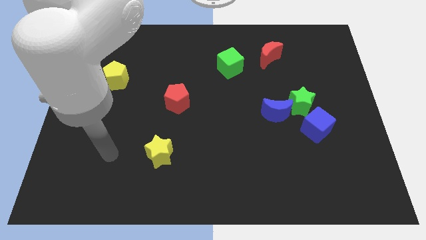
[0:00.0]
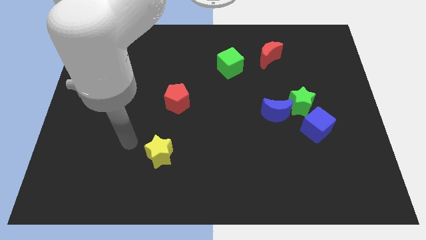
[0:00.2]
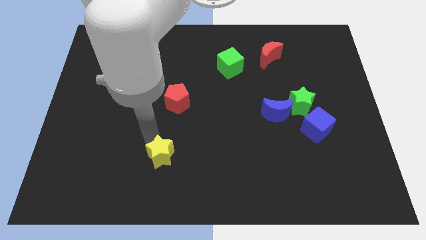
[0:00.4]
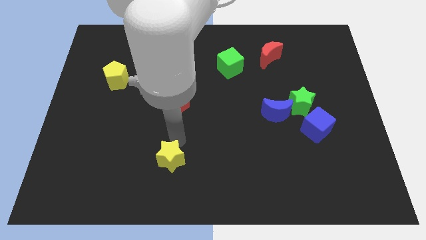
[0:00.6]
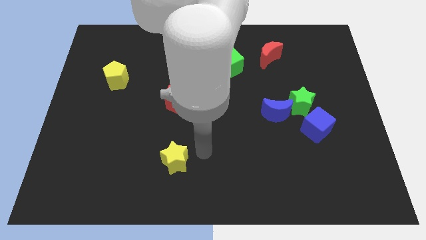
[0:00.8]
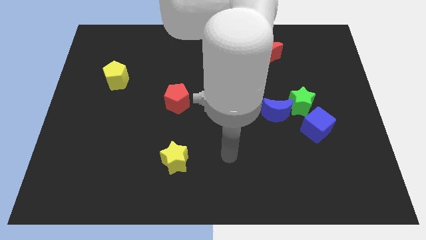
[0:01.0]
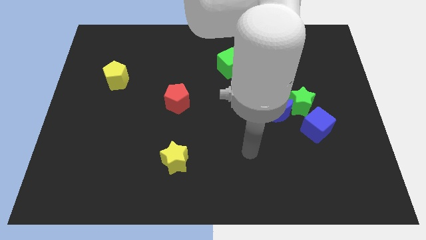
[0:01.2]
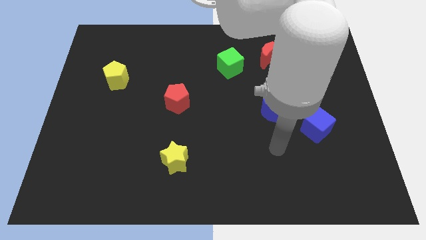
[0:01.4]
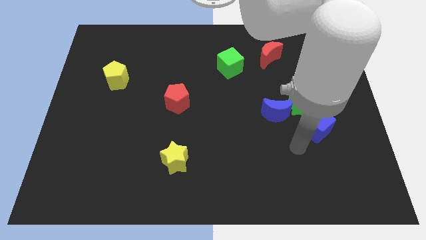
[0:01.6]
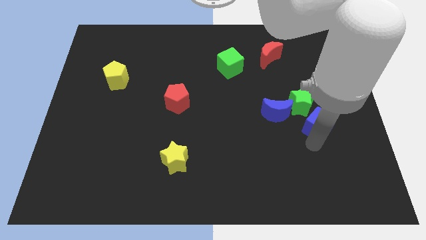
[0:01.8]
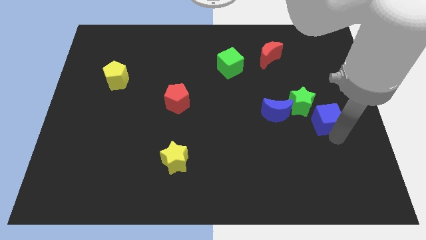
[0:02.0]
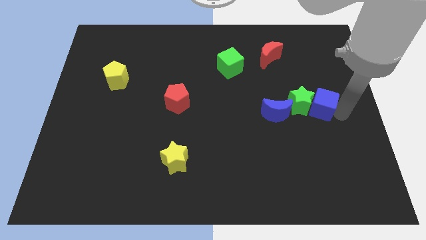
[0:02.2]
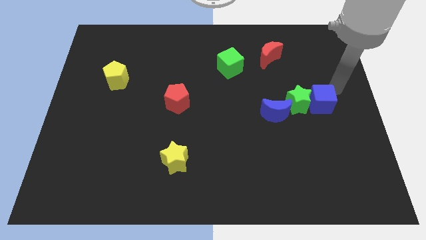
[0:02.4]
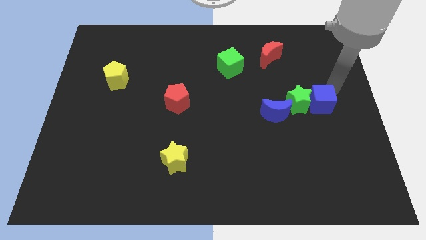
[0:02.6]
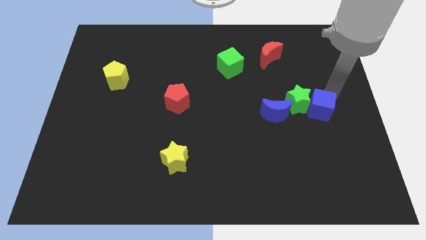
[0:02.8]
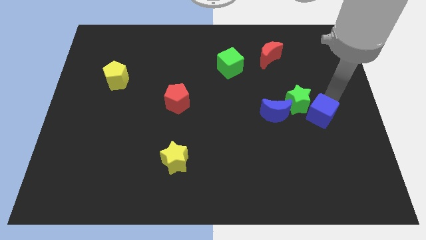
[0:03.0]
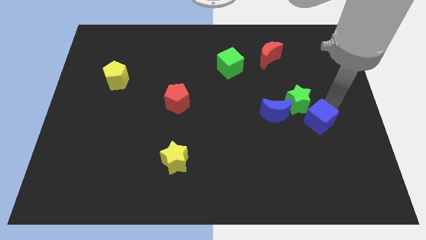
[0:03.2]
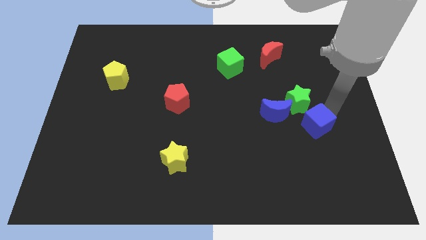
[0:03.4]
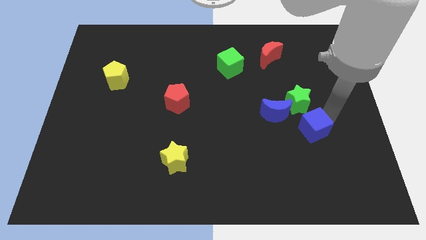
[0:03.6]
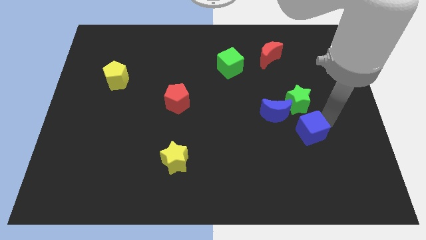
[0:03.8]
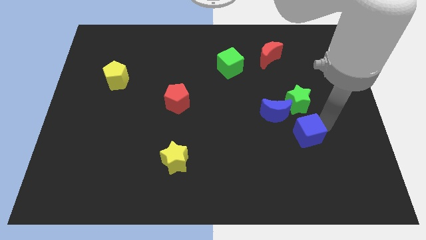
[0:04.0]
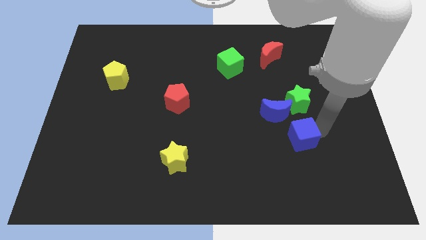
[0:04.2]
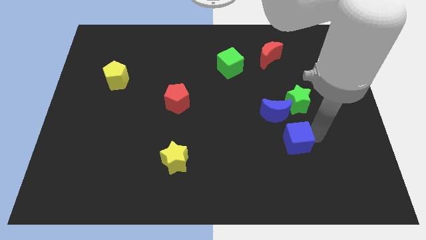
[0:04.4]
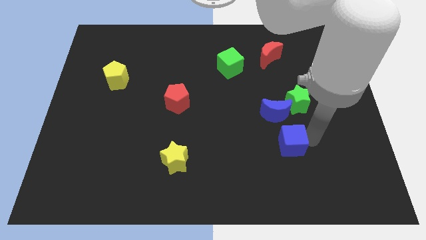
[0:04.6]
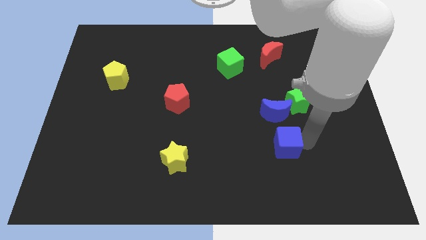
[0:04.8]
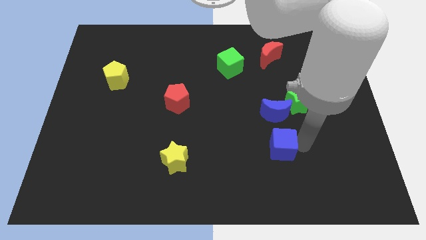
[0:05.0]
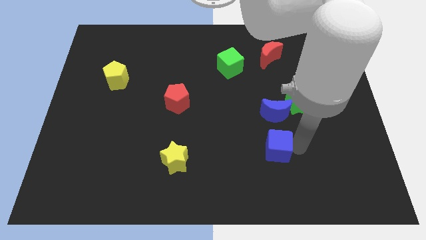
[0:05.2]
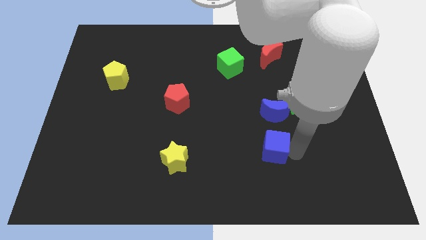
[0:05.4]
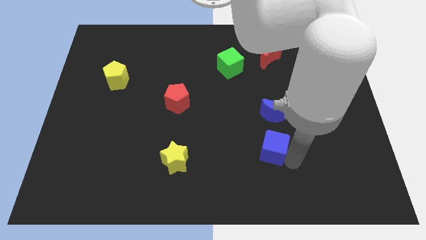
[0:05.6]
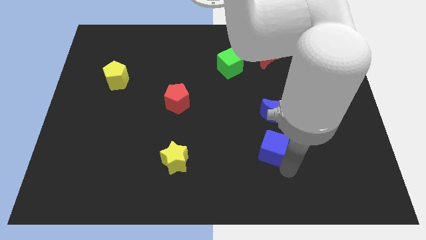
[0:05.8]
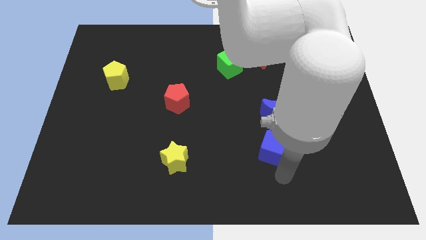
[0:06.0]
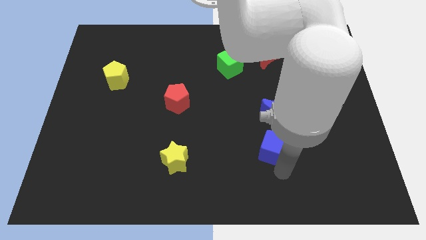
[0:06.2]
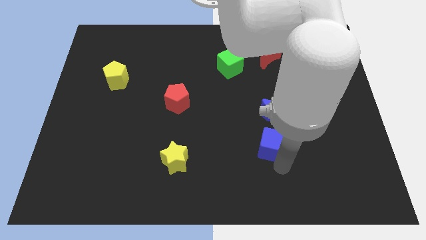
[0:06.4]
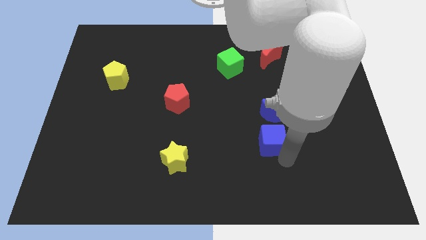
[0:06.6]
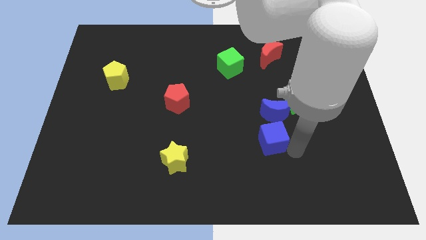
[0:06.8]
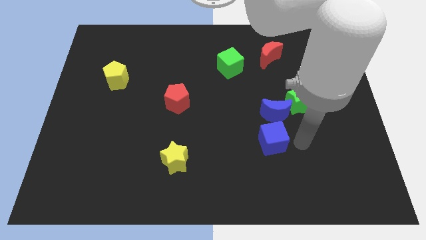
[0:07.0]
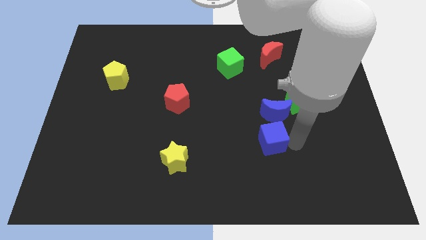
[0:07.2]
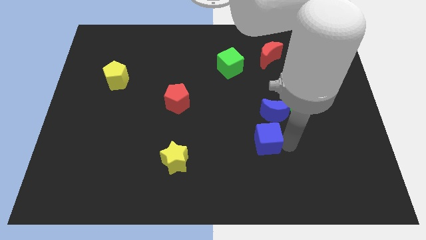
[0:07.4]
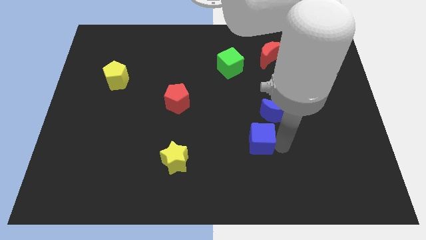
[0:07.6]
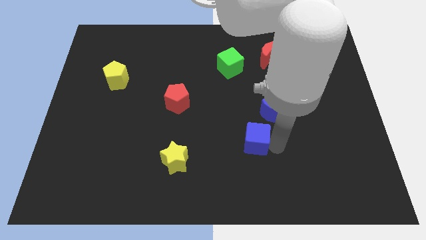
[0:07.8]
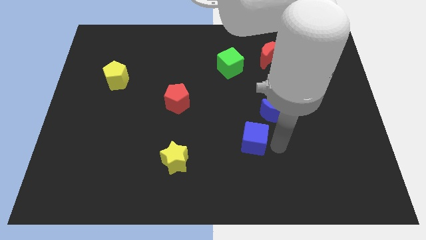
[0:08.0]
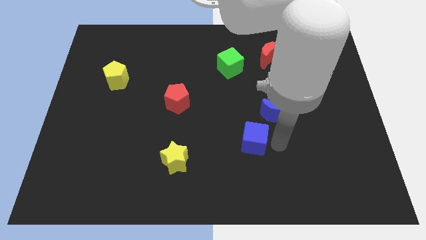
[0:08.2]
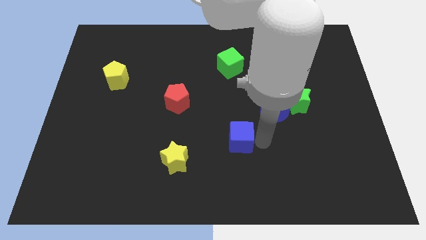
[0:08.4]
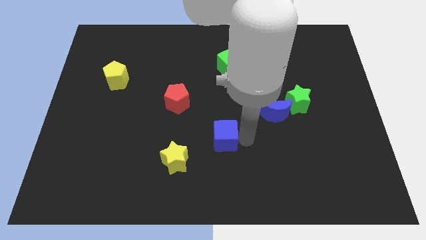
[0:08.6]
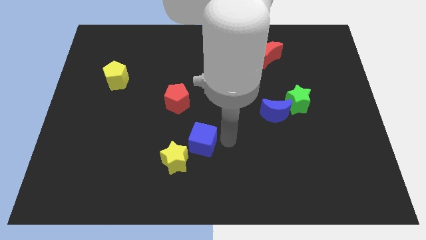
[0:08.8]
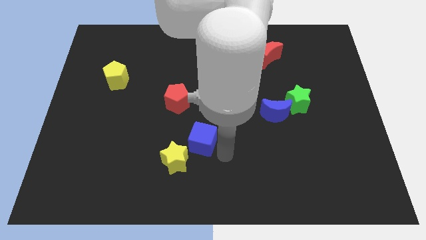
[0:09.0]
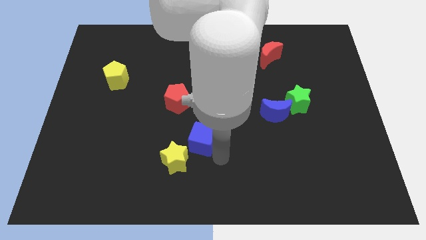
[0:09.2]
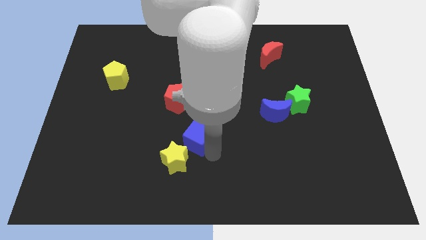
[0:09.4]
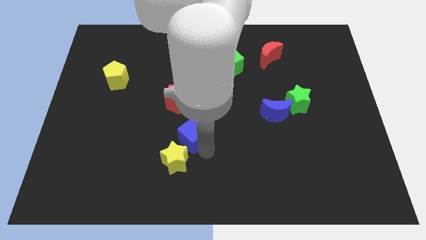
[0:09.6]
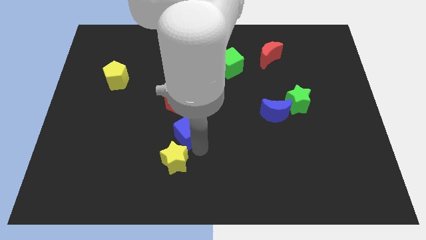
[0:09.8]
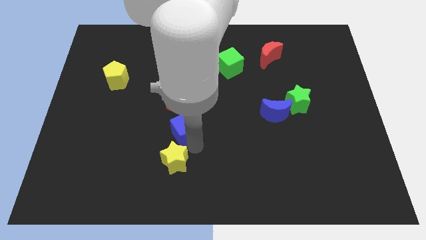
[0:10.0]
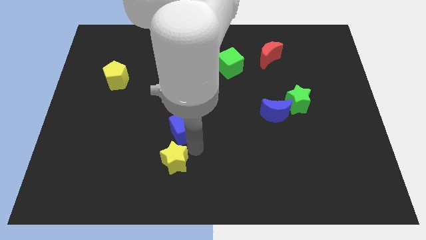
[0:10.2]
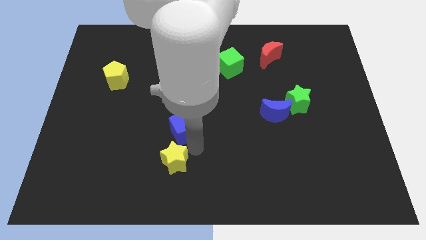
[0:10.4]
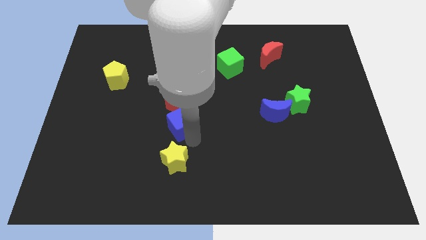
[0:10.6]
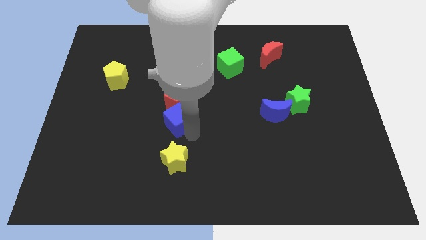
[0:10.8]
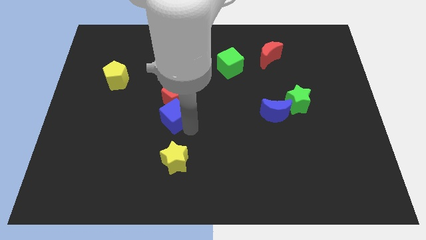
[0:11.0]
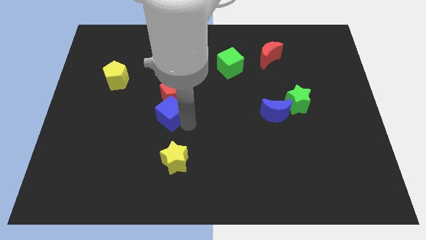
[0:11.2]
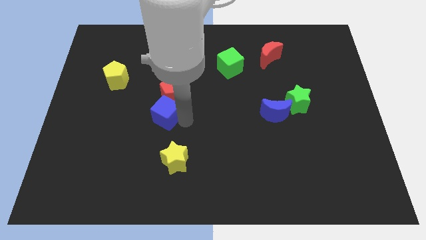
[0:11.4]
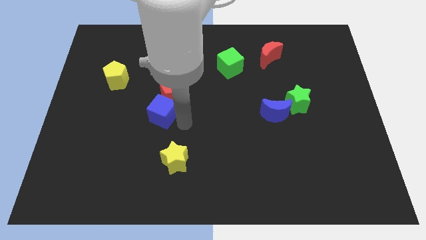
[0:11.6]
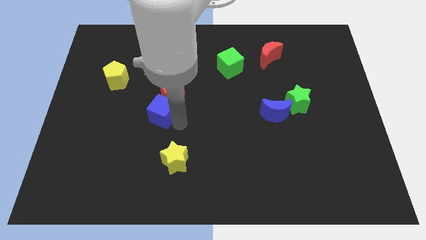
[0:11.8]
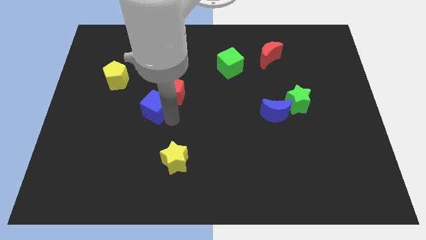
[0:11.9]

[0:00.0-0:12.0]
push the blue cube to the left side of the red pentagon
